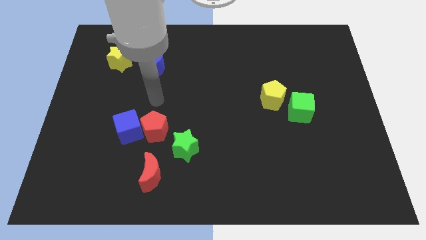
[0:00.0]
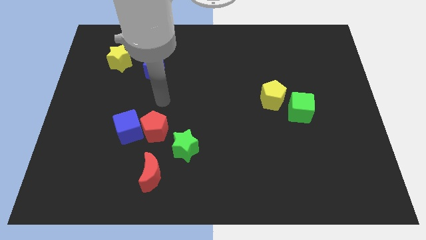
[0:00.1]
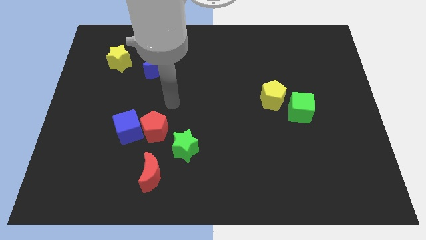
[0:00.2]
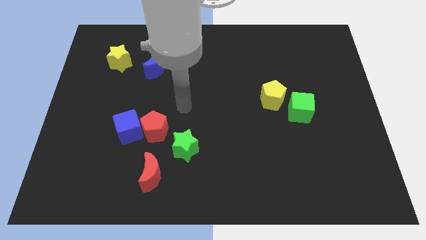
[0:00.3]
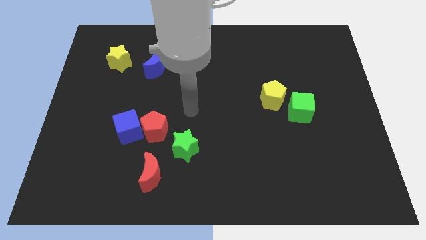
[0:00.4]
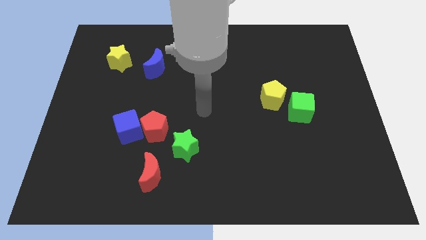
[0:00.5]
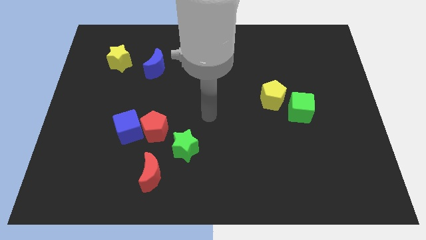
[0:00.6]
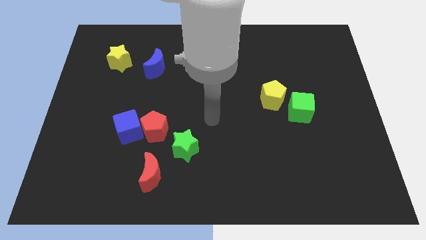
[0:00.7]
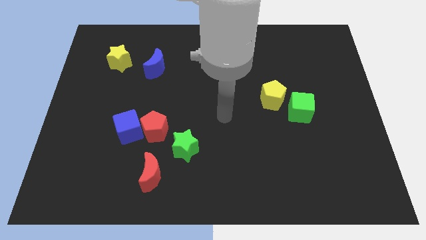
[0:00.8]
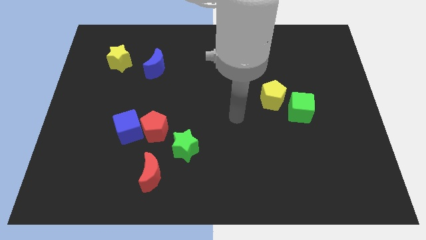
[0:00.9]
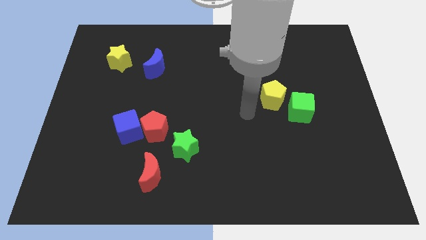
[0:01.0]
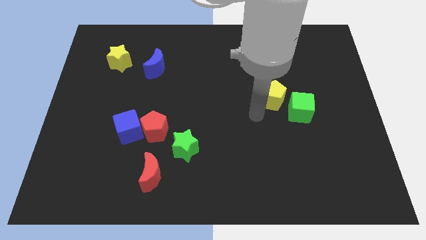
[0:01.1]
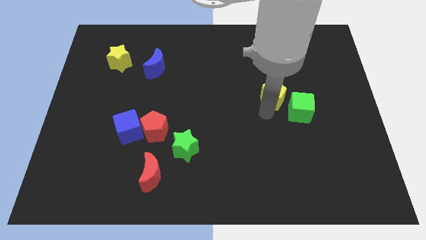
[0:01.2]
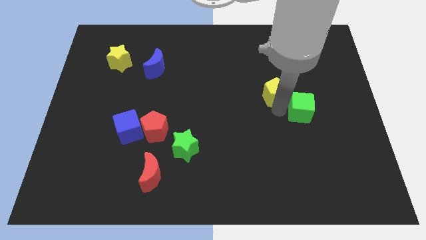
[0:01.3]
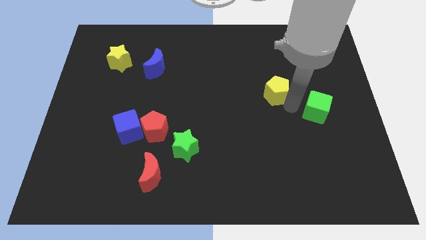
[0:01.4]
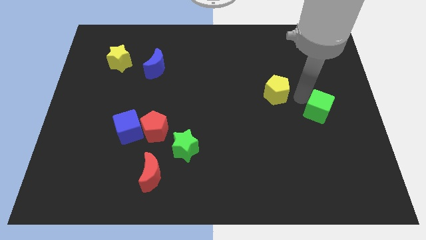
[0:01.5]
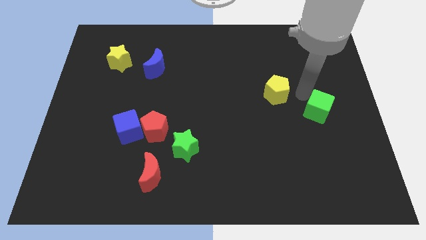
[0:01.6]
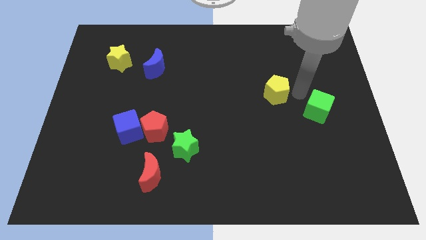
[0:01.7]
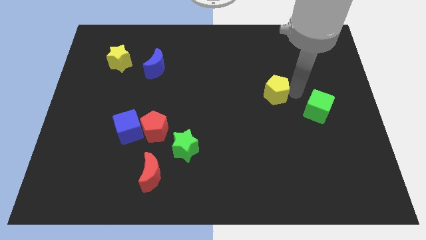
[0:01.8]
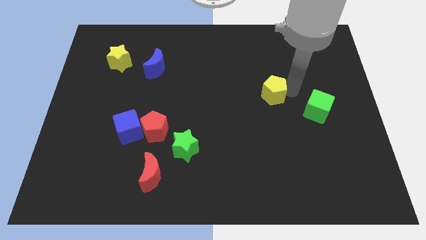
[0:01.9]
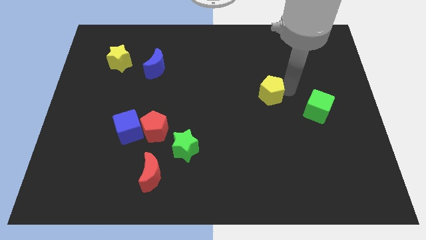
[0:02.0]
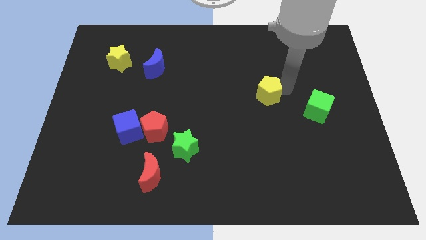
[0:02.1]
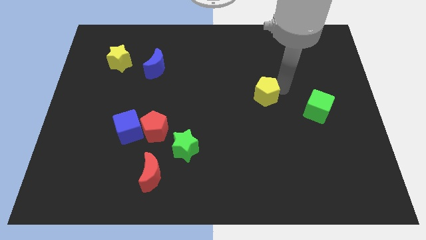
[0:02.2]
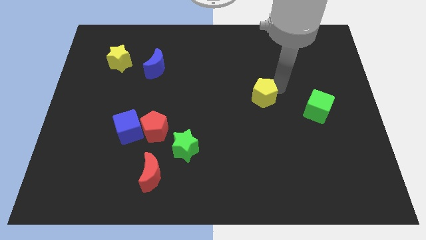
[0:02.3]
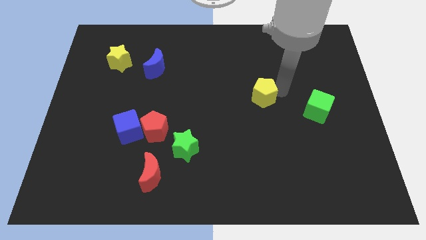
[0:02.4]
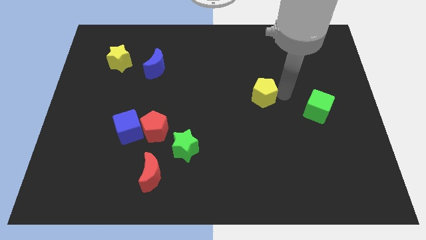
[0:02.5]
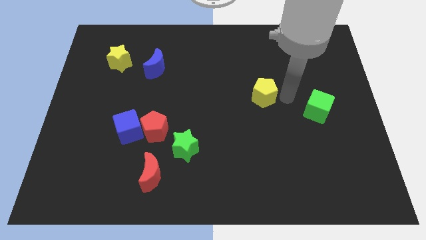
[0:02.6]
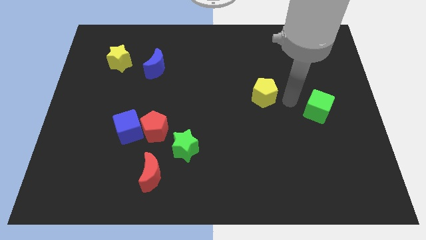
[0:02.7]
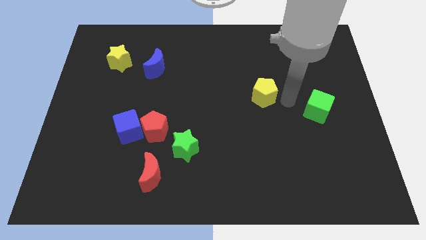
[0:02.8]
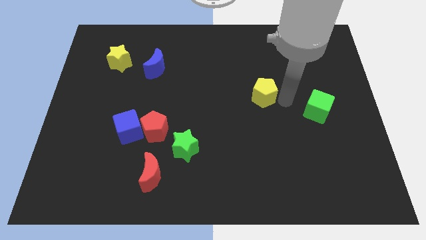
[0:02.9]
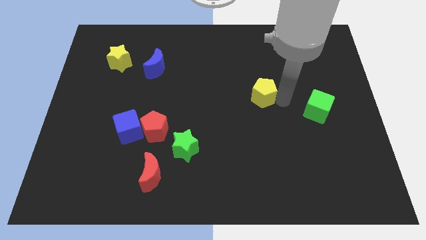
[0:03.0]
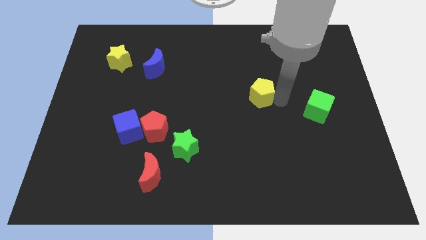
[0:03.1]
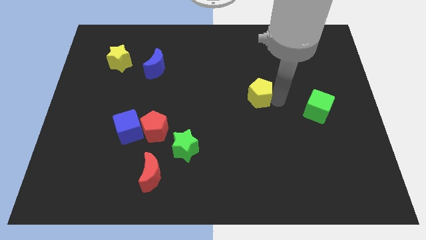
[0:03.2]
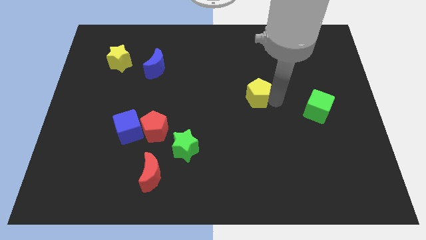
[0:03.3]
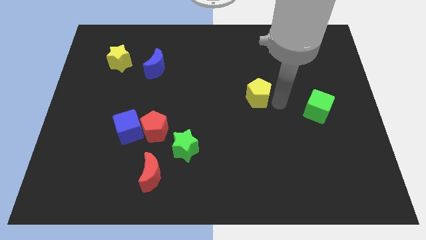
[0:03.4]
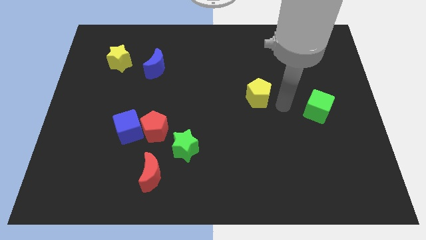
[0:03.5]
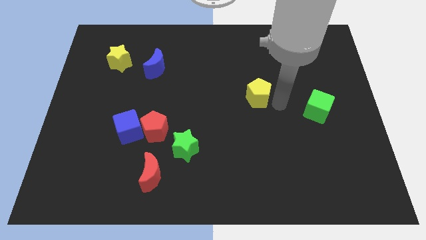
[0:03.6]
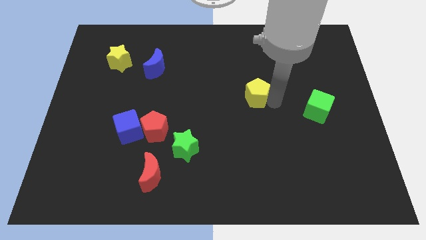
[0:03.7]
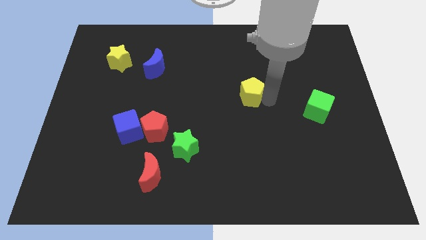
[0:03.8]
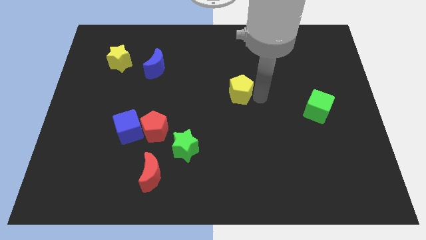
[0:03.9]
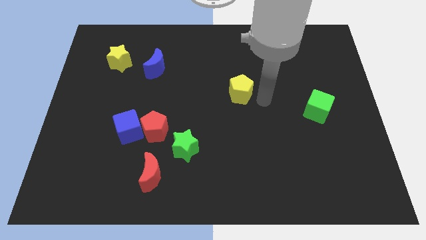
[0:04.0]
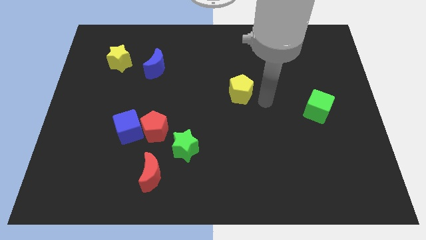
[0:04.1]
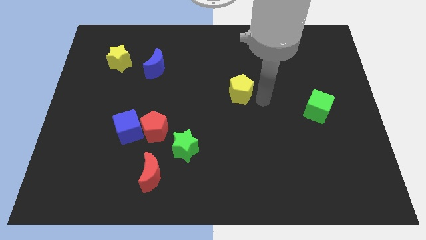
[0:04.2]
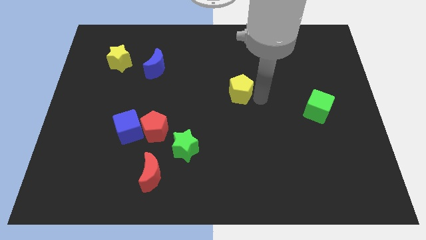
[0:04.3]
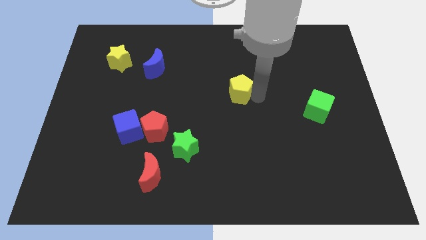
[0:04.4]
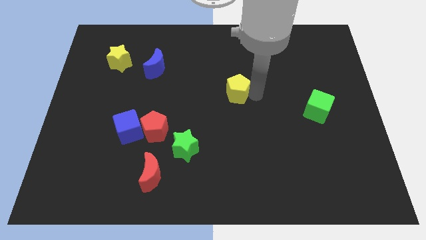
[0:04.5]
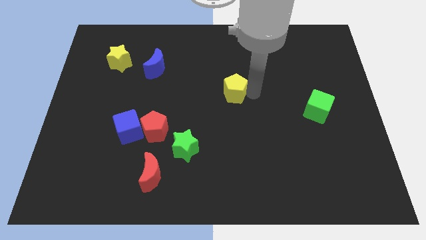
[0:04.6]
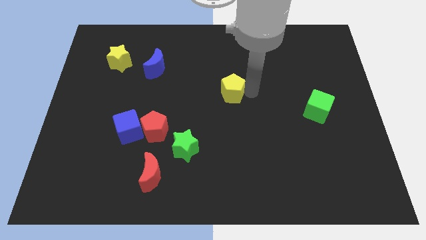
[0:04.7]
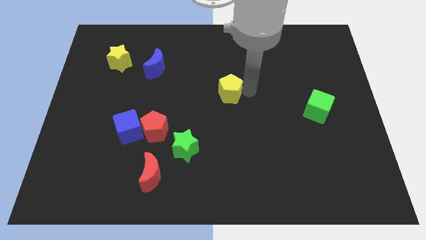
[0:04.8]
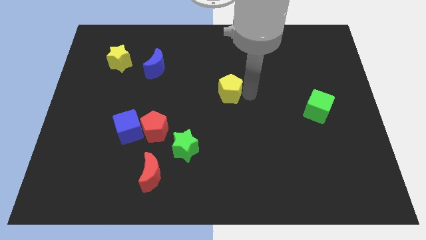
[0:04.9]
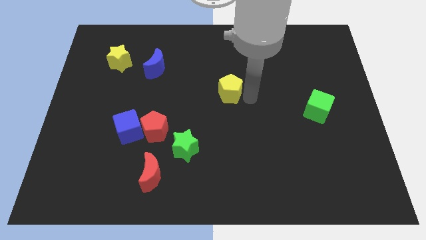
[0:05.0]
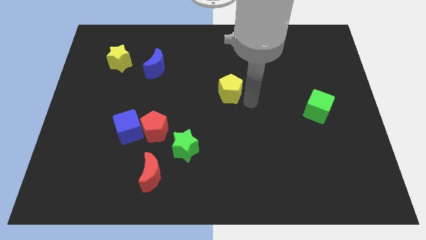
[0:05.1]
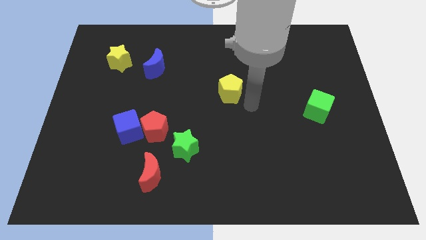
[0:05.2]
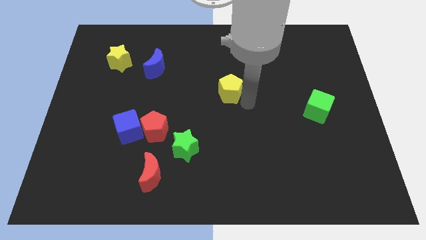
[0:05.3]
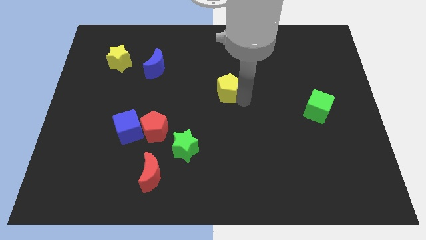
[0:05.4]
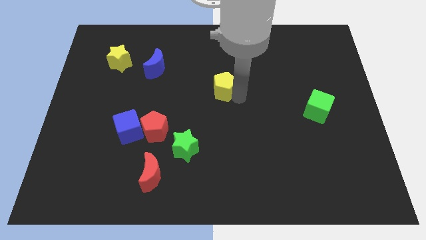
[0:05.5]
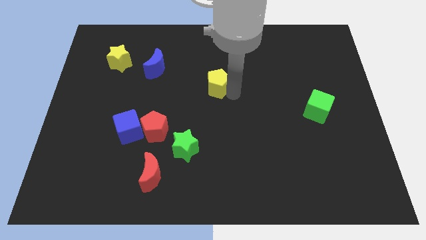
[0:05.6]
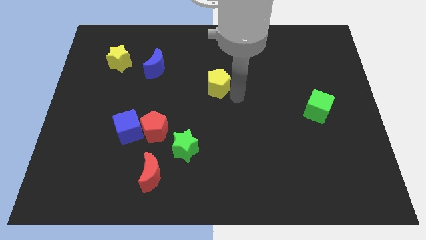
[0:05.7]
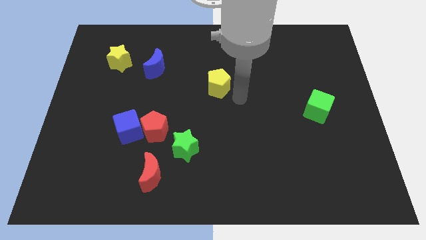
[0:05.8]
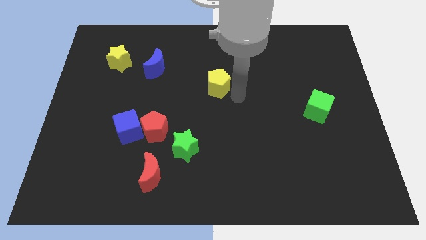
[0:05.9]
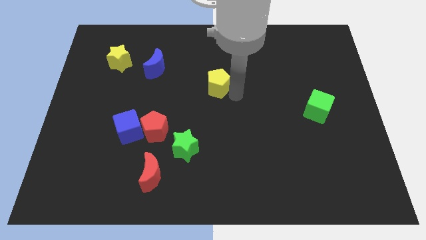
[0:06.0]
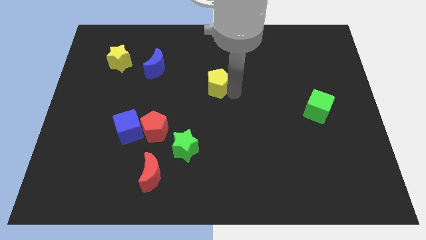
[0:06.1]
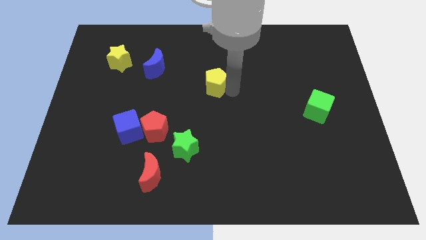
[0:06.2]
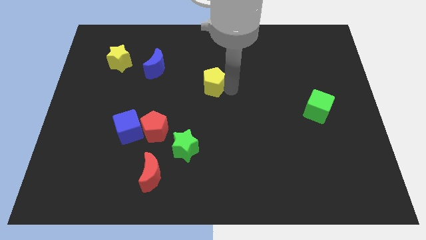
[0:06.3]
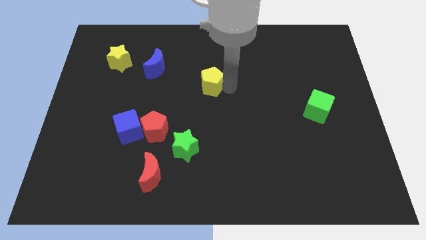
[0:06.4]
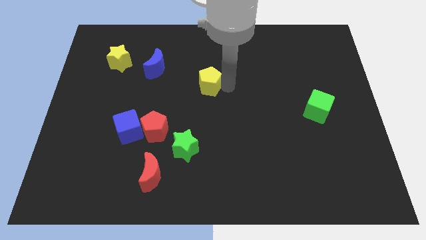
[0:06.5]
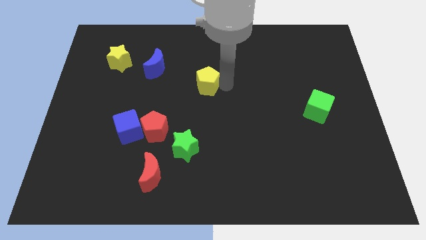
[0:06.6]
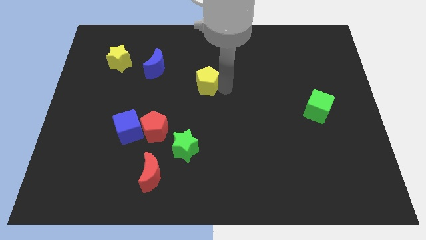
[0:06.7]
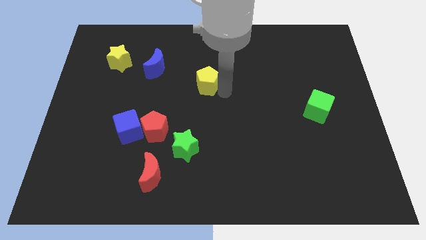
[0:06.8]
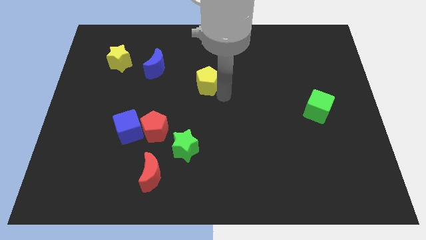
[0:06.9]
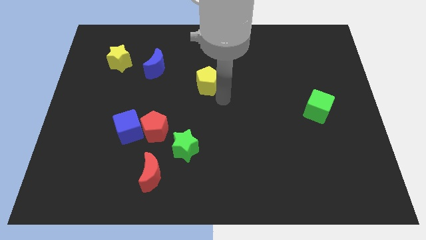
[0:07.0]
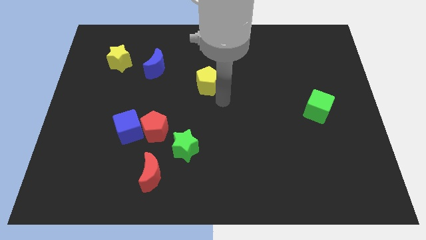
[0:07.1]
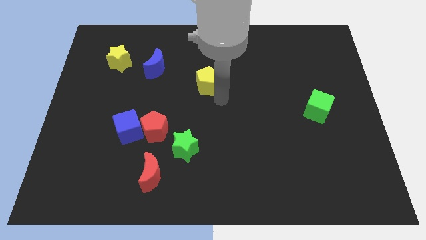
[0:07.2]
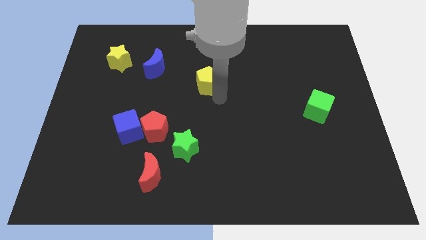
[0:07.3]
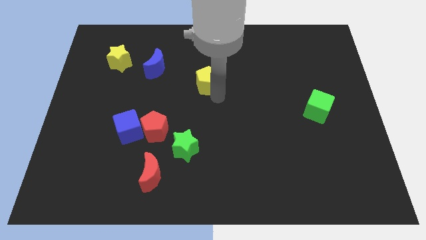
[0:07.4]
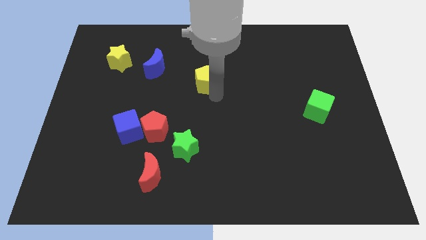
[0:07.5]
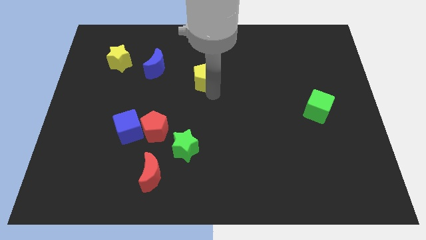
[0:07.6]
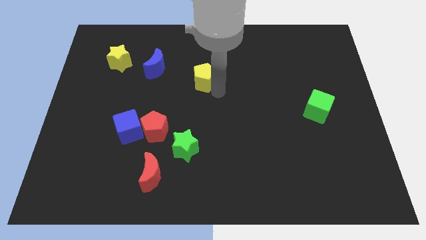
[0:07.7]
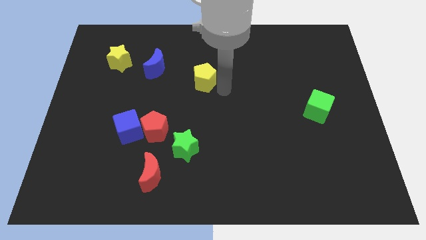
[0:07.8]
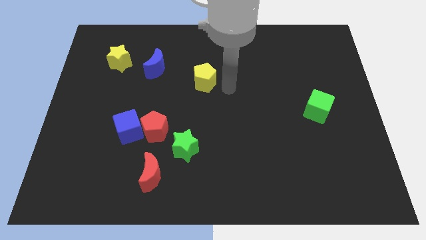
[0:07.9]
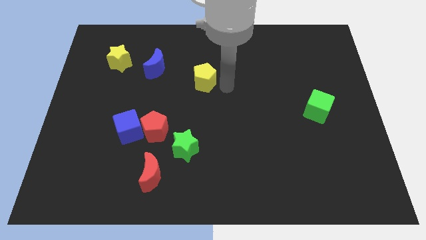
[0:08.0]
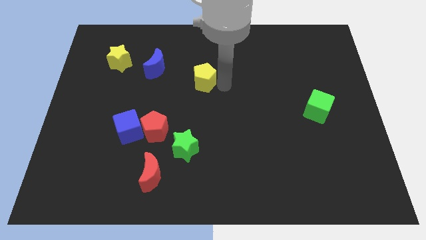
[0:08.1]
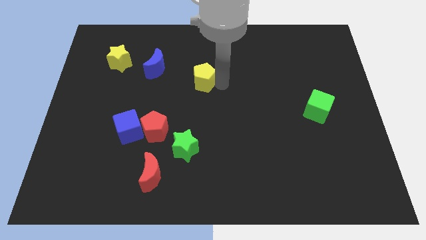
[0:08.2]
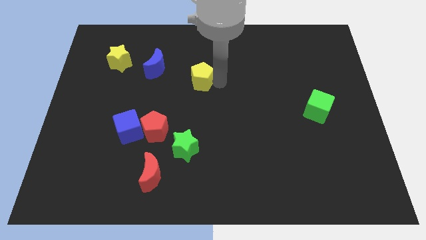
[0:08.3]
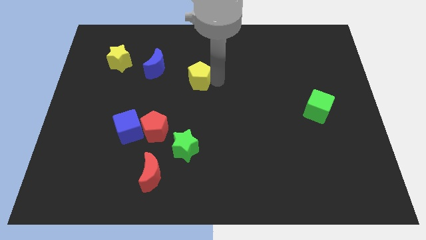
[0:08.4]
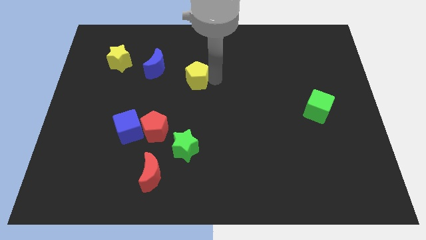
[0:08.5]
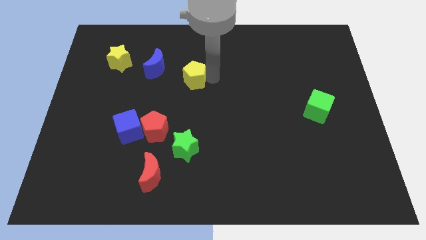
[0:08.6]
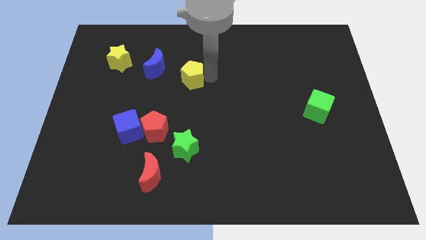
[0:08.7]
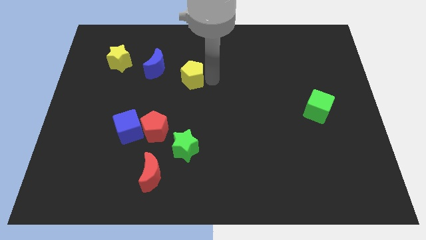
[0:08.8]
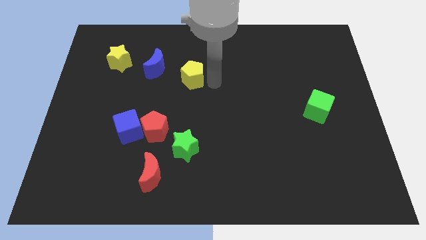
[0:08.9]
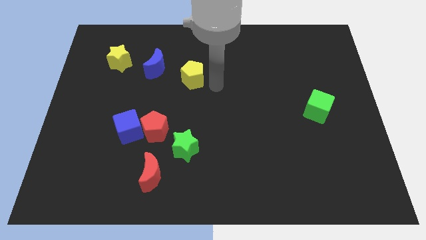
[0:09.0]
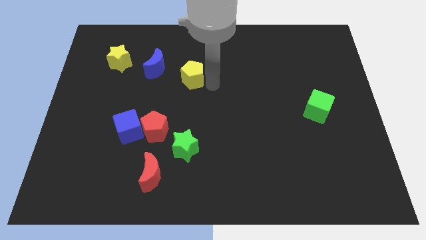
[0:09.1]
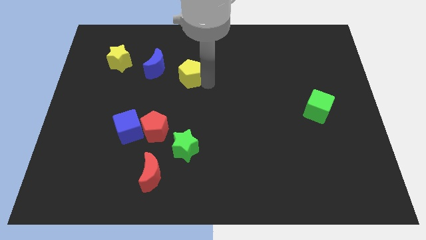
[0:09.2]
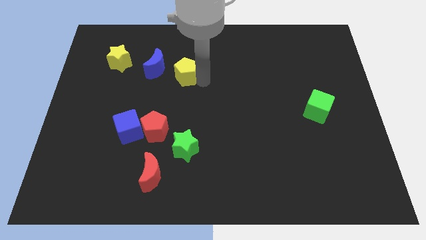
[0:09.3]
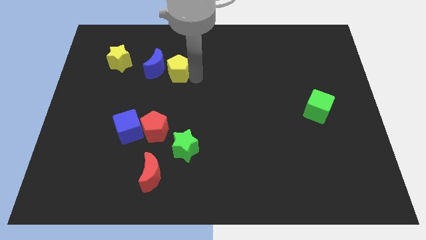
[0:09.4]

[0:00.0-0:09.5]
push the yellow pentagon close to the blue moon
